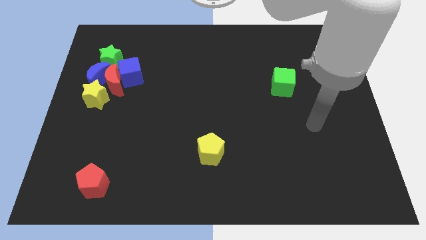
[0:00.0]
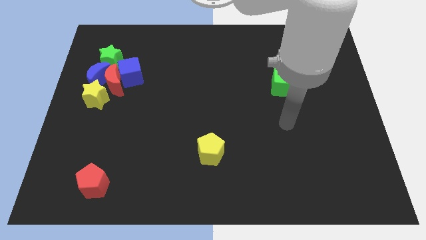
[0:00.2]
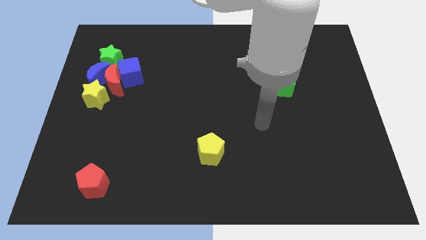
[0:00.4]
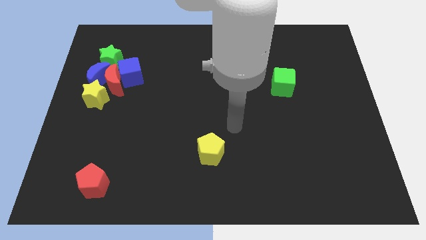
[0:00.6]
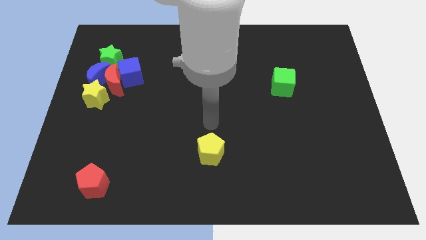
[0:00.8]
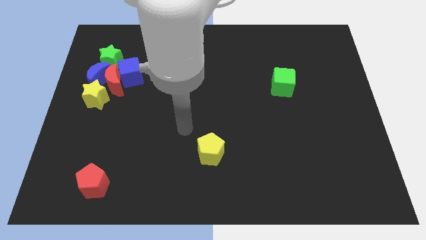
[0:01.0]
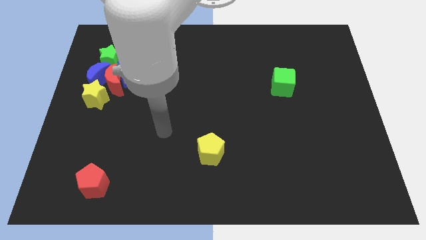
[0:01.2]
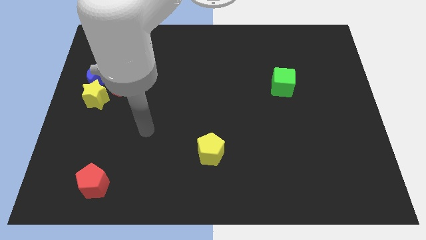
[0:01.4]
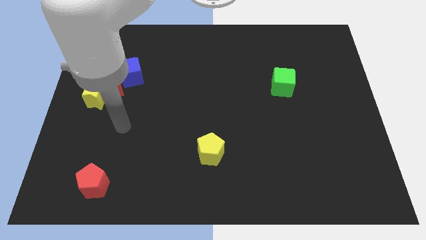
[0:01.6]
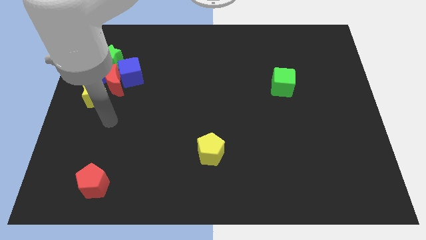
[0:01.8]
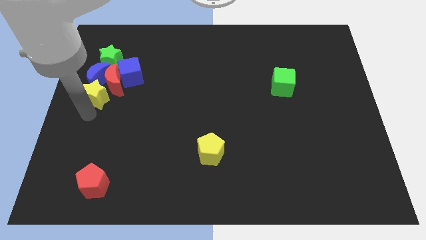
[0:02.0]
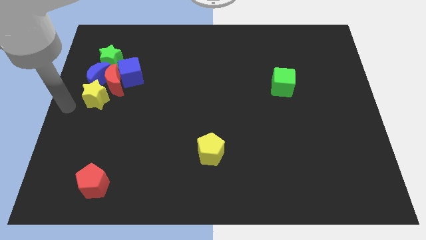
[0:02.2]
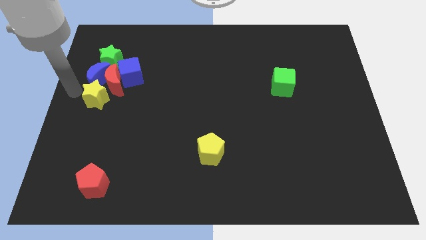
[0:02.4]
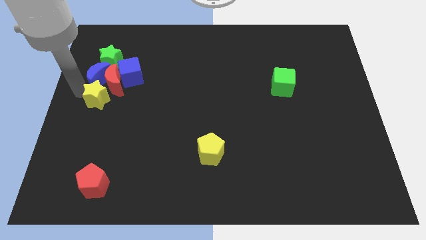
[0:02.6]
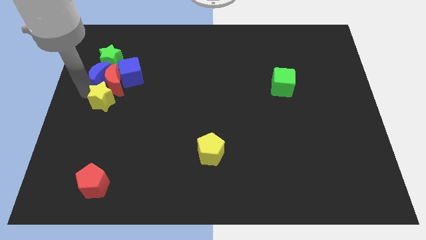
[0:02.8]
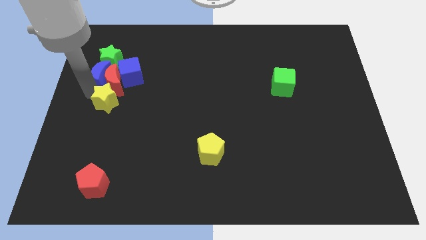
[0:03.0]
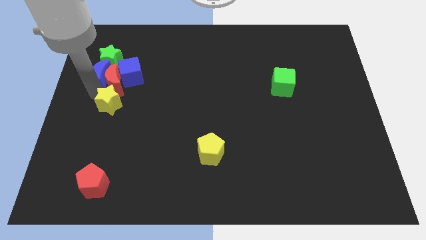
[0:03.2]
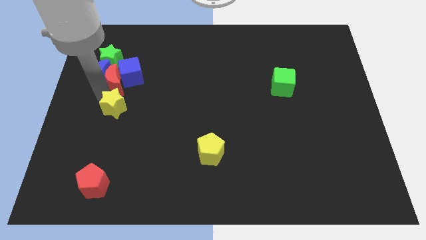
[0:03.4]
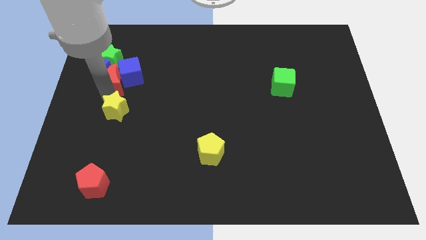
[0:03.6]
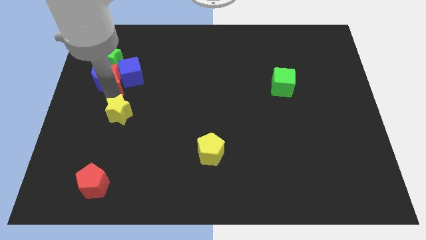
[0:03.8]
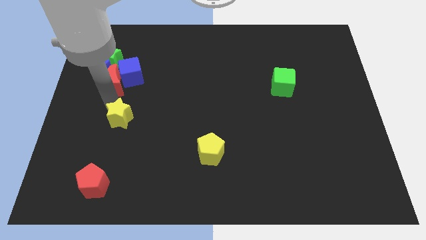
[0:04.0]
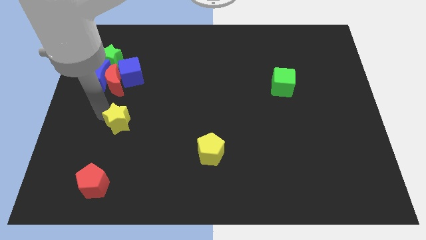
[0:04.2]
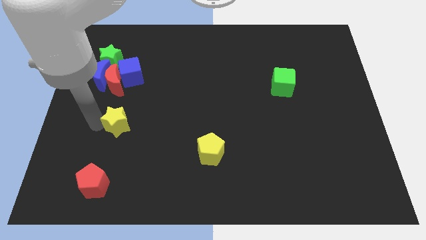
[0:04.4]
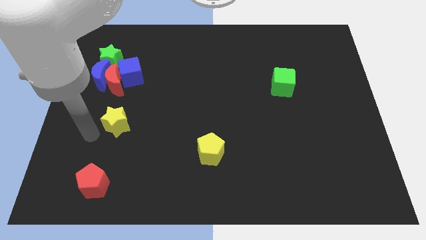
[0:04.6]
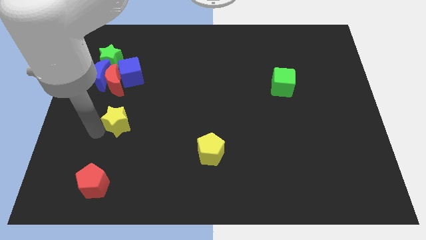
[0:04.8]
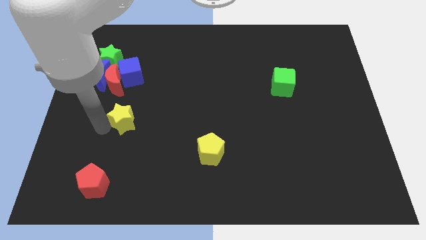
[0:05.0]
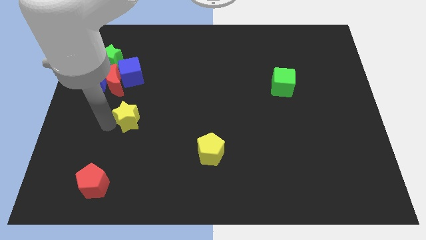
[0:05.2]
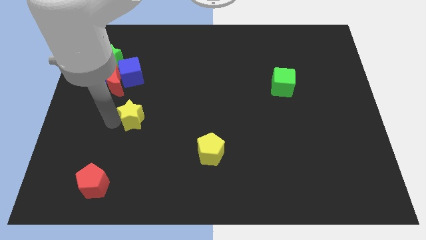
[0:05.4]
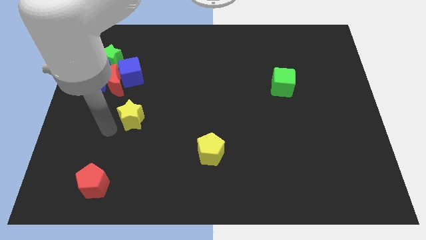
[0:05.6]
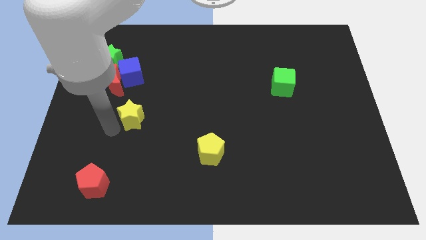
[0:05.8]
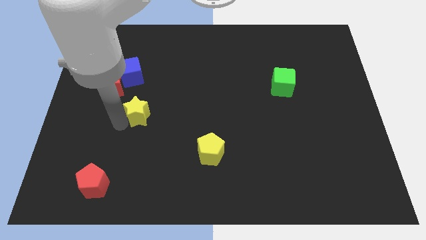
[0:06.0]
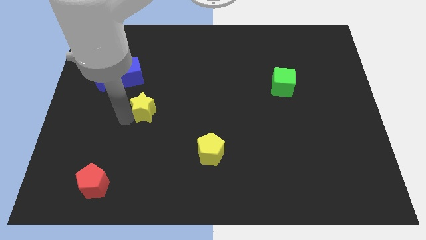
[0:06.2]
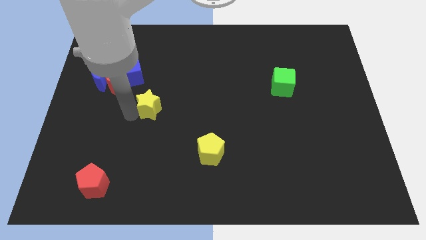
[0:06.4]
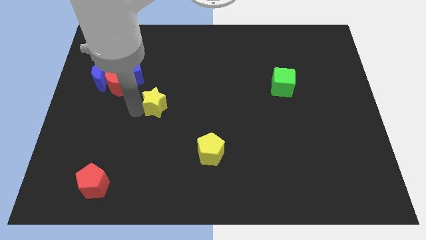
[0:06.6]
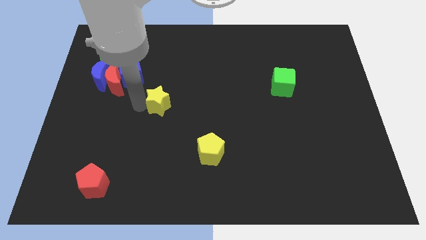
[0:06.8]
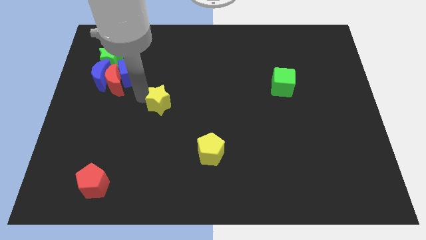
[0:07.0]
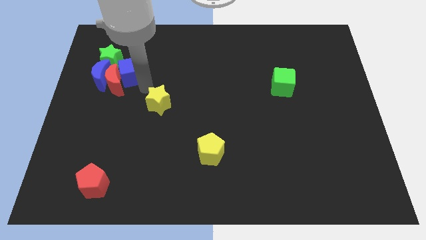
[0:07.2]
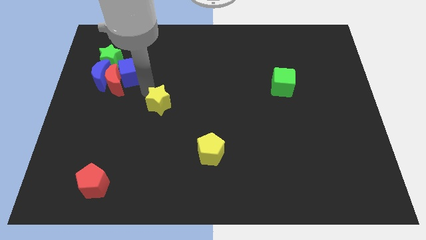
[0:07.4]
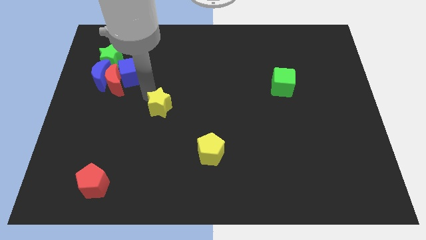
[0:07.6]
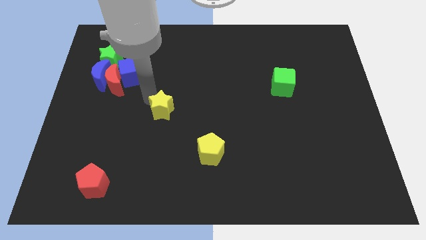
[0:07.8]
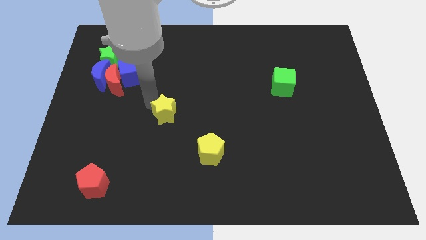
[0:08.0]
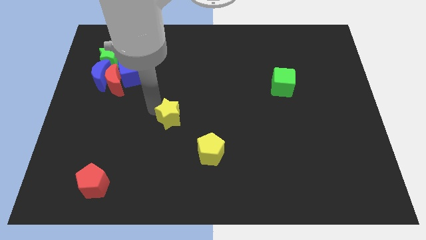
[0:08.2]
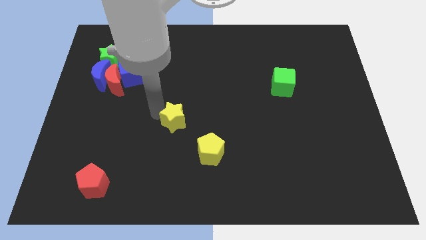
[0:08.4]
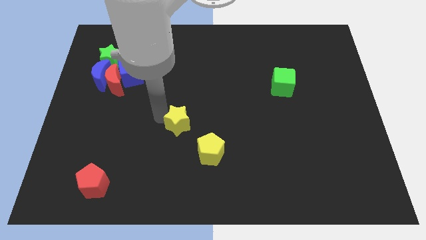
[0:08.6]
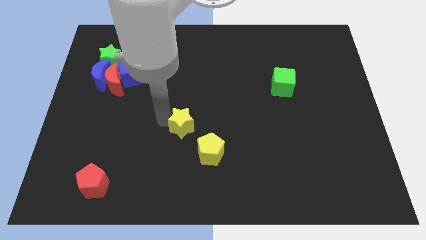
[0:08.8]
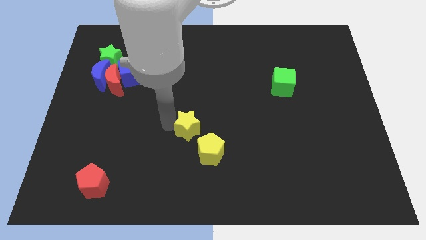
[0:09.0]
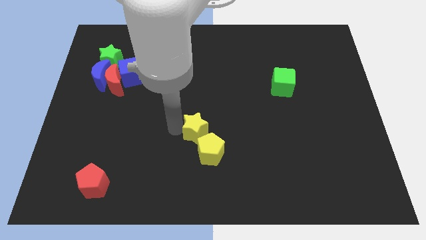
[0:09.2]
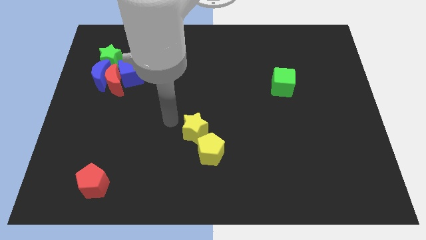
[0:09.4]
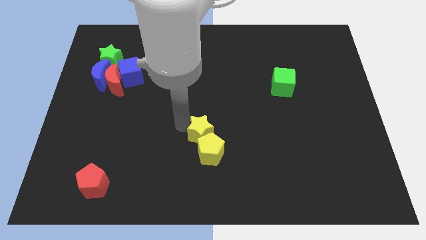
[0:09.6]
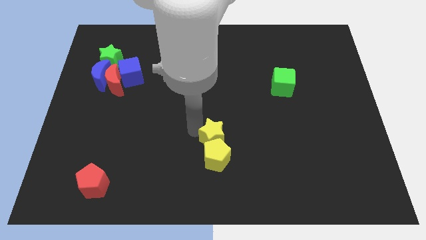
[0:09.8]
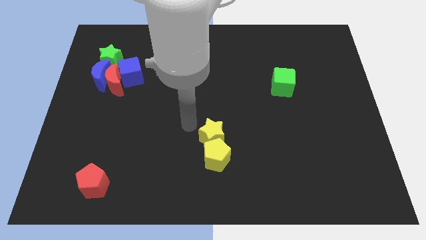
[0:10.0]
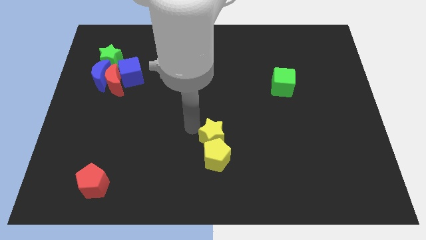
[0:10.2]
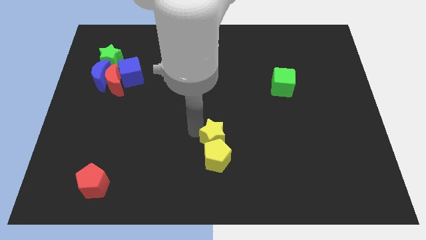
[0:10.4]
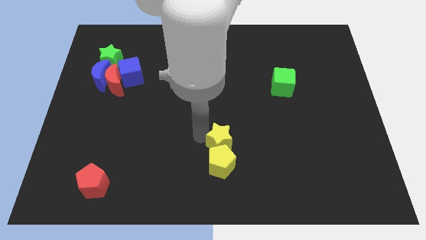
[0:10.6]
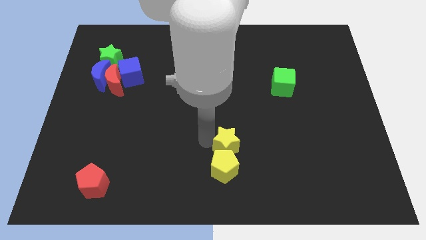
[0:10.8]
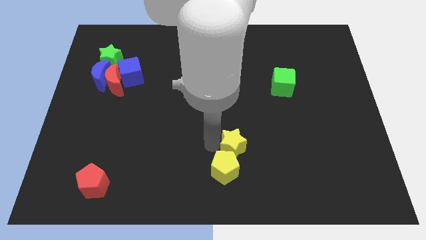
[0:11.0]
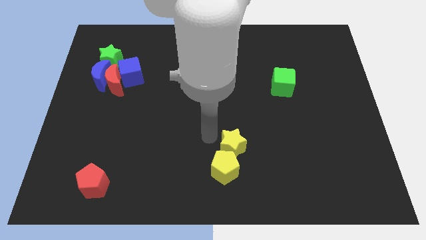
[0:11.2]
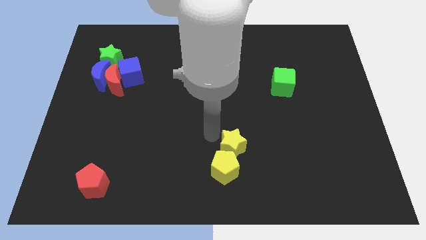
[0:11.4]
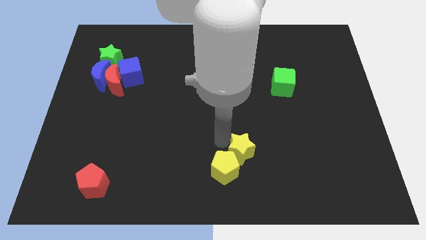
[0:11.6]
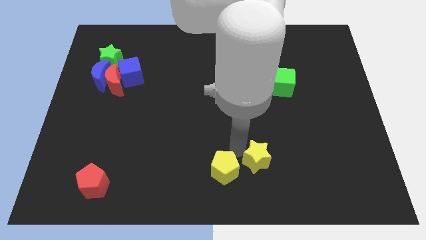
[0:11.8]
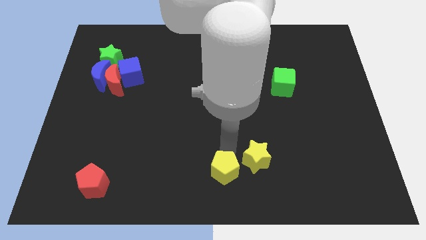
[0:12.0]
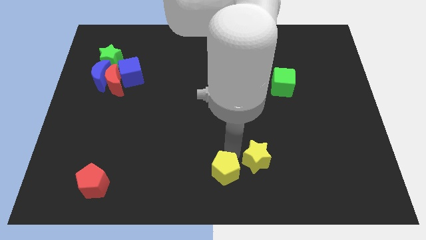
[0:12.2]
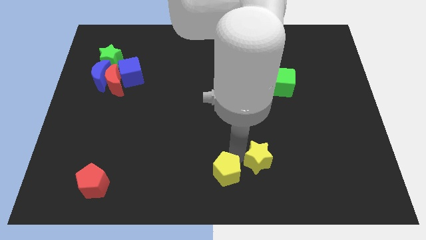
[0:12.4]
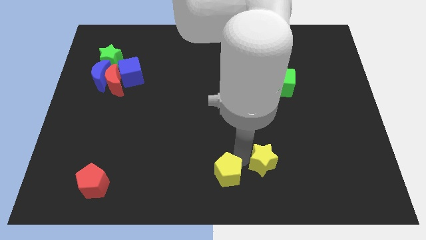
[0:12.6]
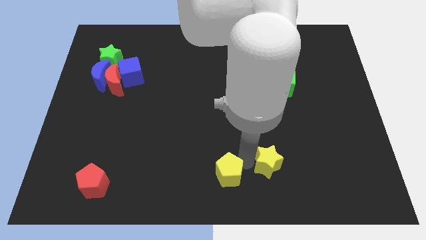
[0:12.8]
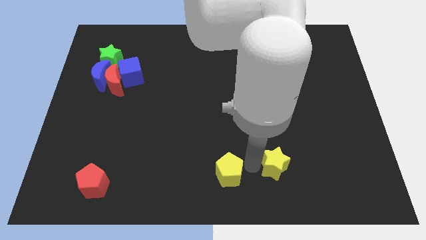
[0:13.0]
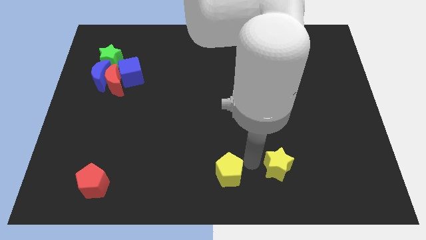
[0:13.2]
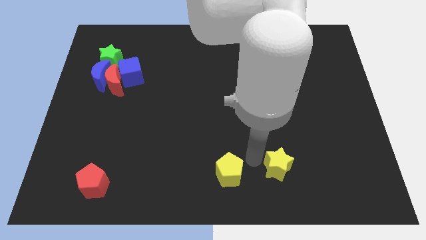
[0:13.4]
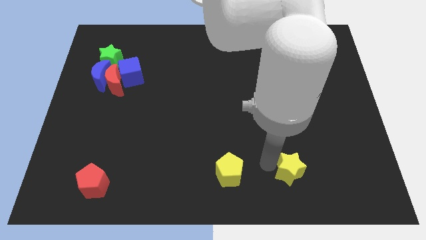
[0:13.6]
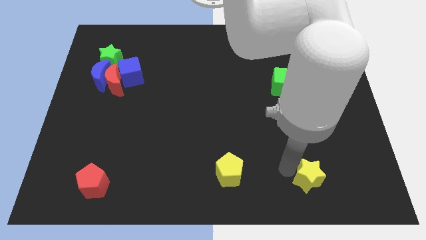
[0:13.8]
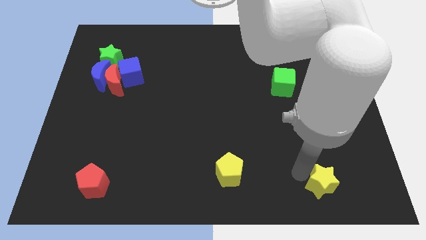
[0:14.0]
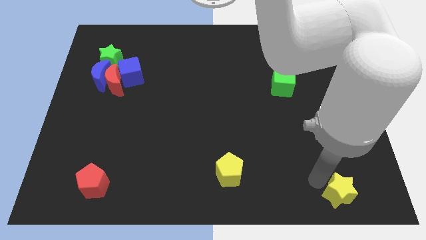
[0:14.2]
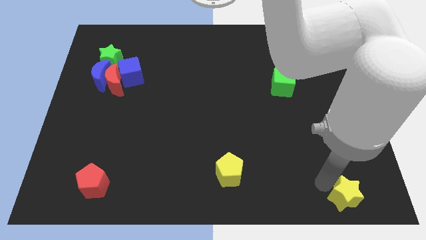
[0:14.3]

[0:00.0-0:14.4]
push the yellow star to the bottom right corner

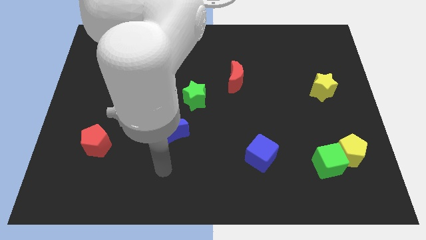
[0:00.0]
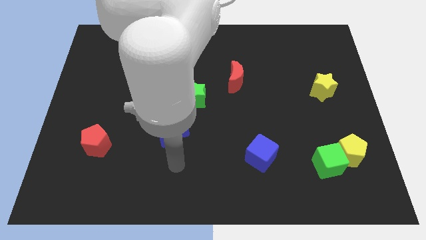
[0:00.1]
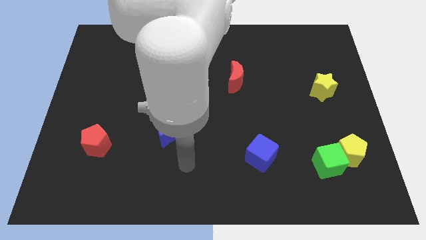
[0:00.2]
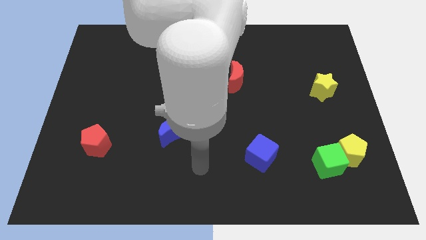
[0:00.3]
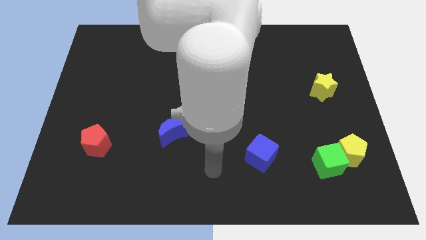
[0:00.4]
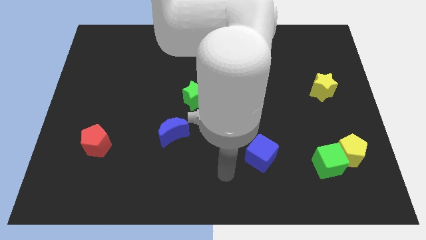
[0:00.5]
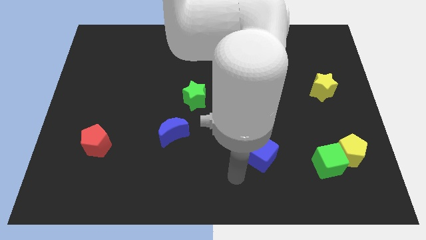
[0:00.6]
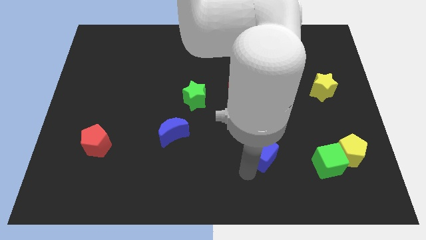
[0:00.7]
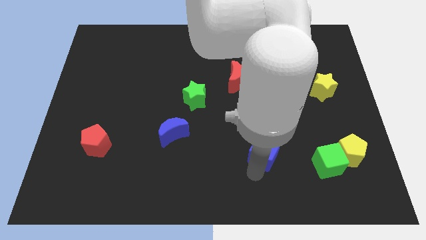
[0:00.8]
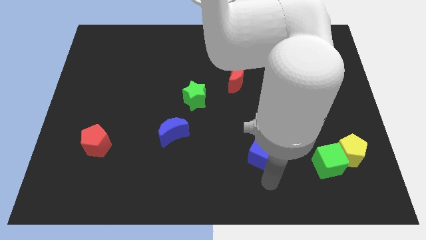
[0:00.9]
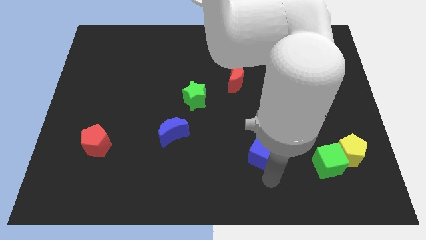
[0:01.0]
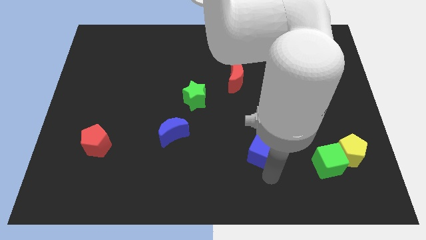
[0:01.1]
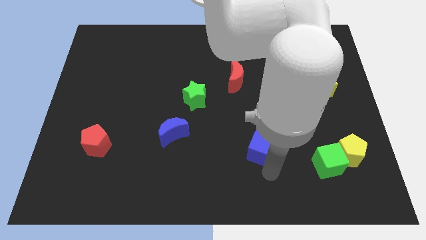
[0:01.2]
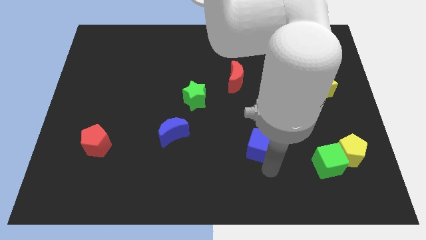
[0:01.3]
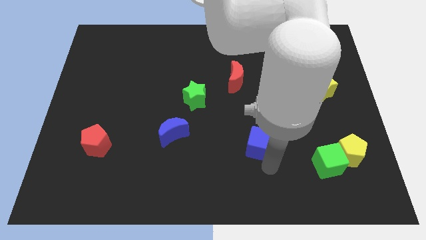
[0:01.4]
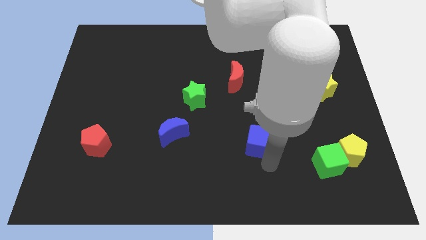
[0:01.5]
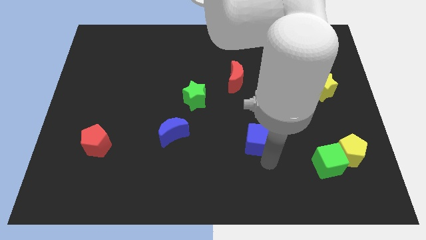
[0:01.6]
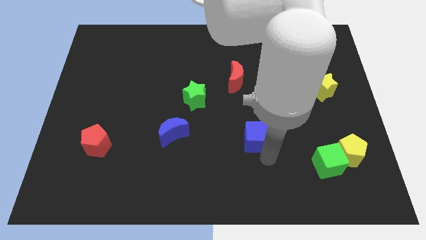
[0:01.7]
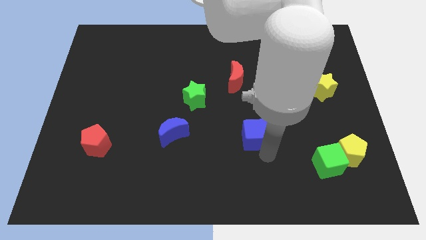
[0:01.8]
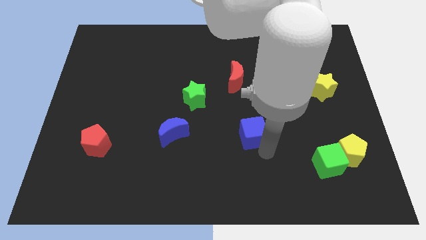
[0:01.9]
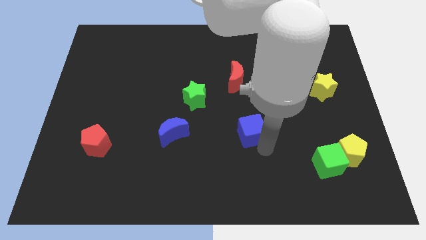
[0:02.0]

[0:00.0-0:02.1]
put the blue cube to the middle
